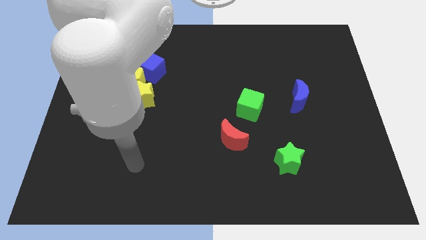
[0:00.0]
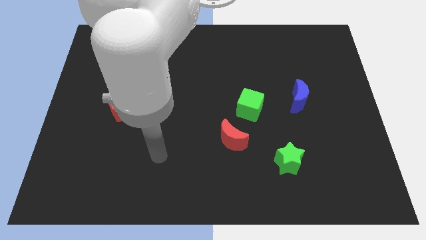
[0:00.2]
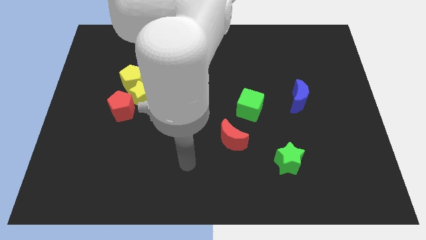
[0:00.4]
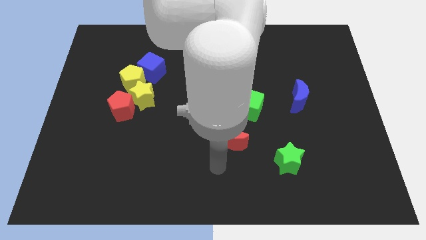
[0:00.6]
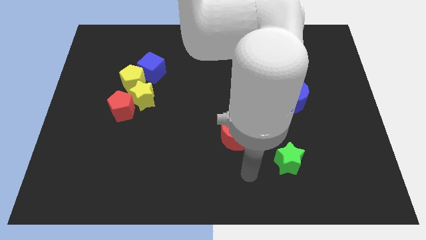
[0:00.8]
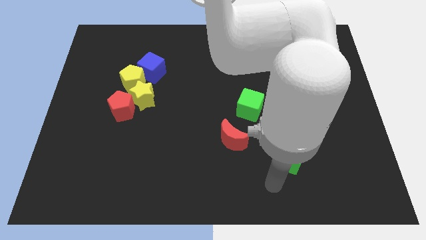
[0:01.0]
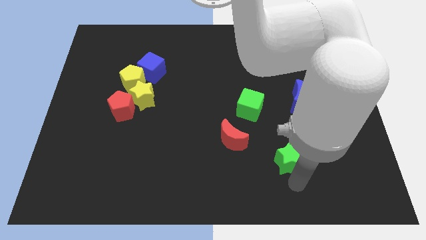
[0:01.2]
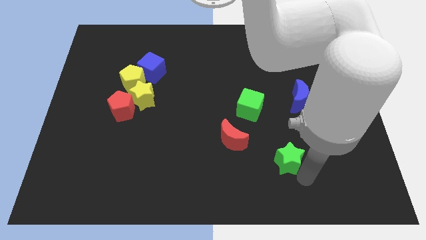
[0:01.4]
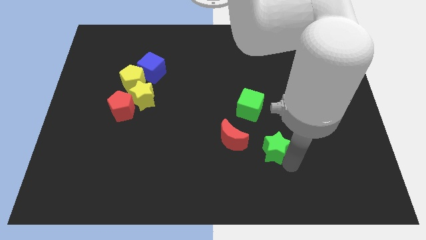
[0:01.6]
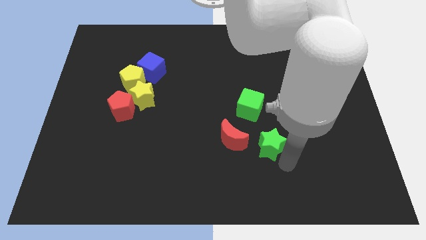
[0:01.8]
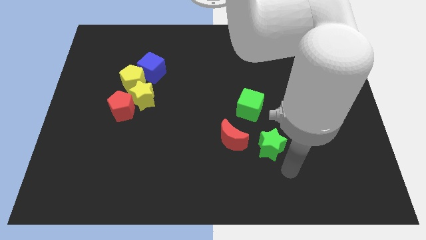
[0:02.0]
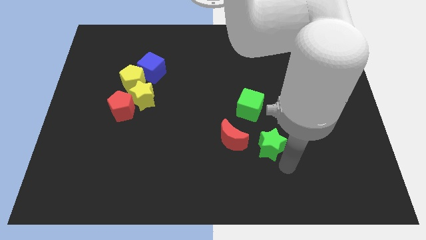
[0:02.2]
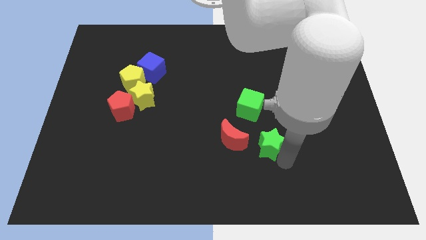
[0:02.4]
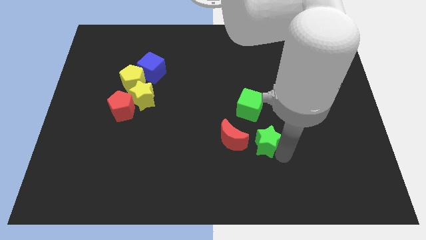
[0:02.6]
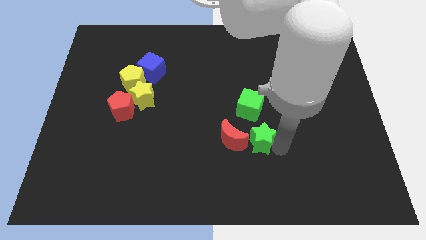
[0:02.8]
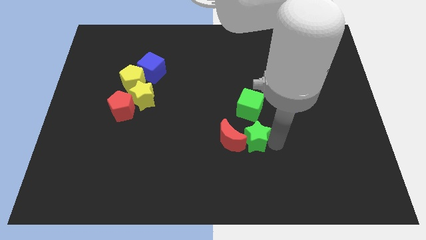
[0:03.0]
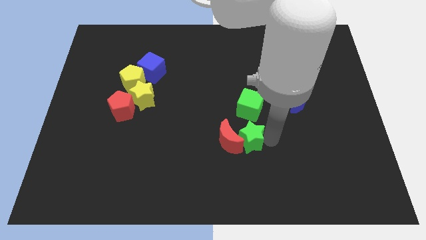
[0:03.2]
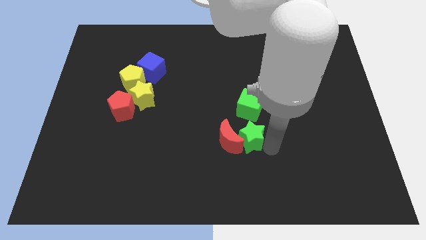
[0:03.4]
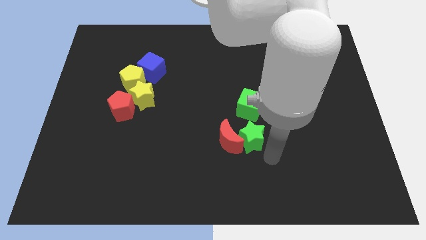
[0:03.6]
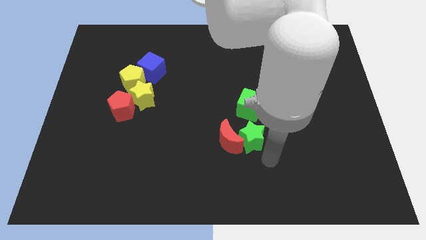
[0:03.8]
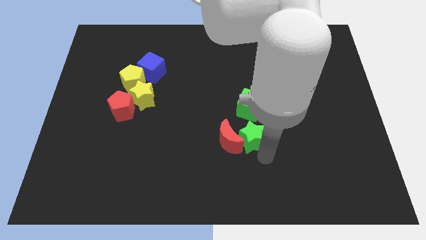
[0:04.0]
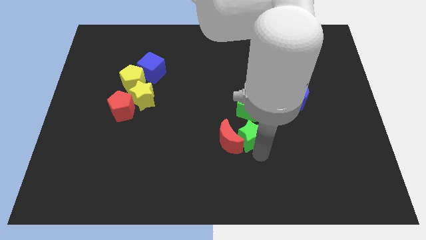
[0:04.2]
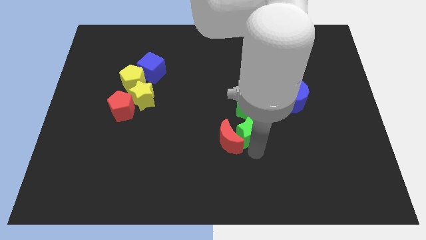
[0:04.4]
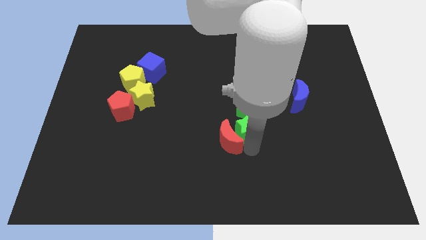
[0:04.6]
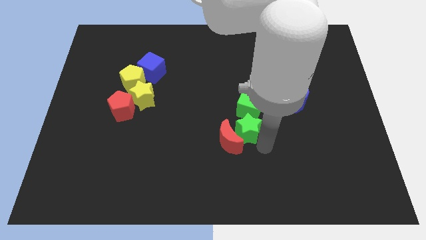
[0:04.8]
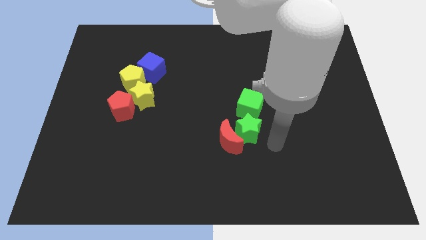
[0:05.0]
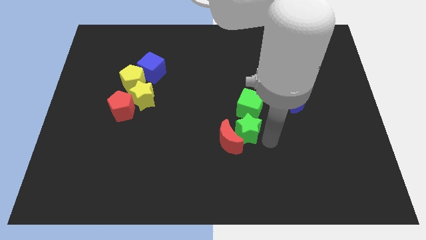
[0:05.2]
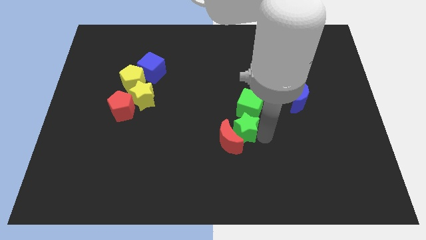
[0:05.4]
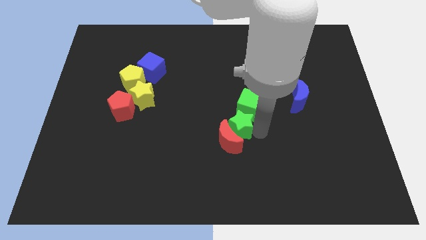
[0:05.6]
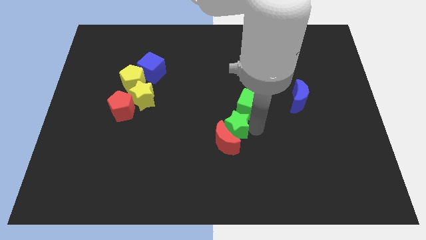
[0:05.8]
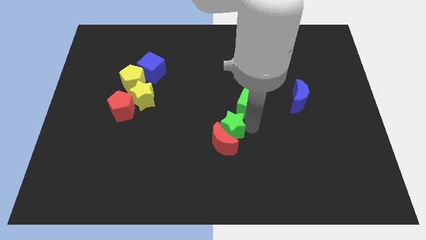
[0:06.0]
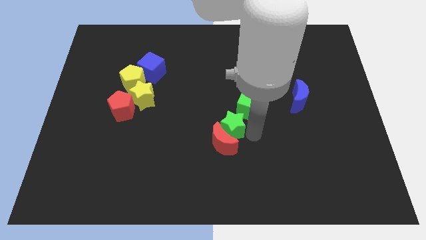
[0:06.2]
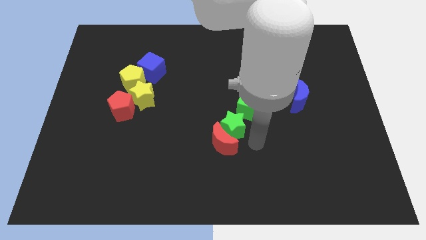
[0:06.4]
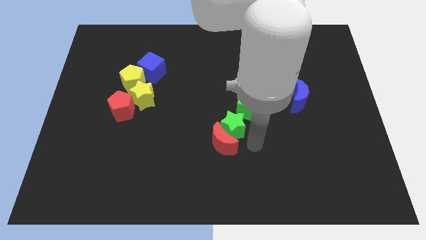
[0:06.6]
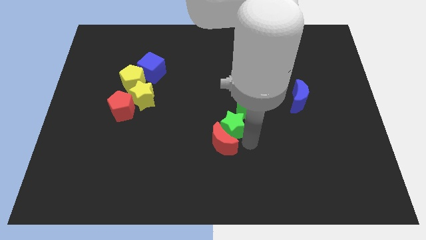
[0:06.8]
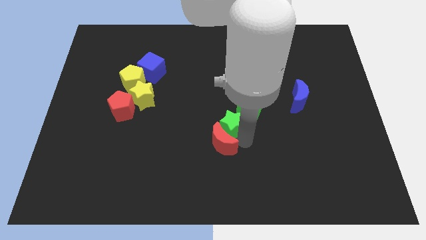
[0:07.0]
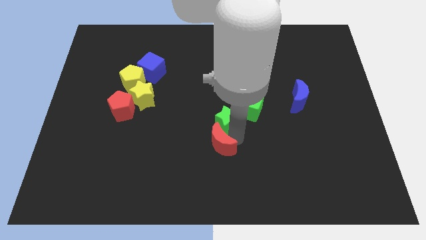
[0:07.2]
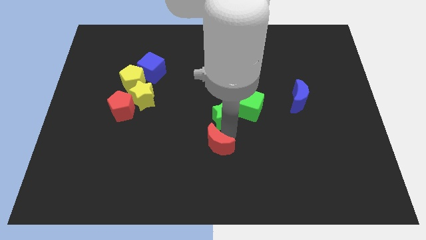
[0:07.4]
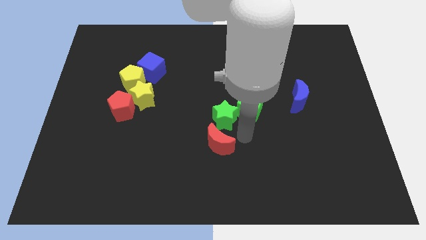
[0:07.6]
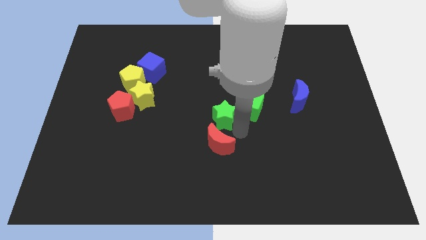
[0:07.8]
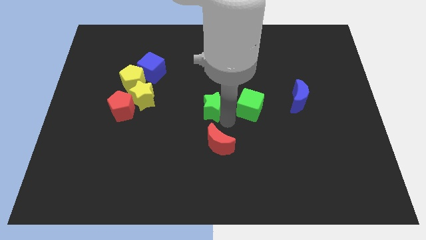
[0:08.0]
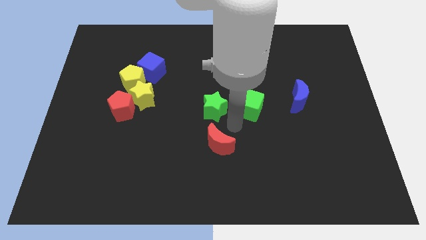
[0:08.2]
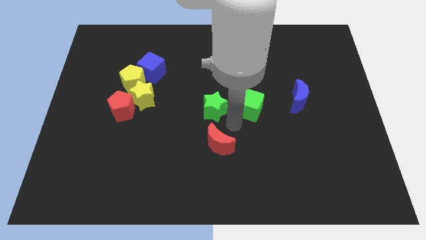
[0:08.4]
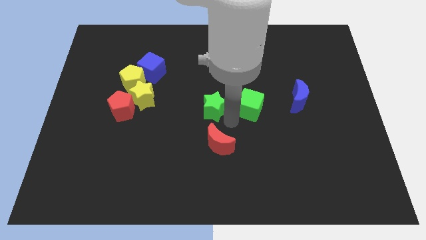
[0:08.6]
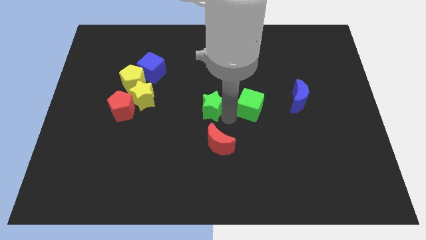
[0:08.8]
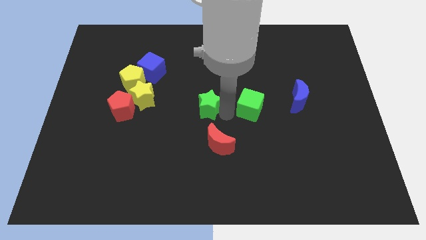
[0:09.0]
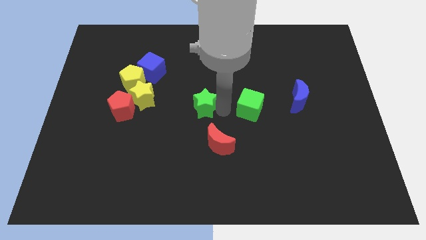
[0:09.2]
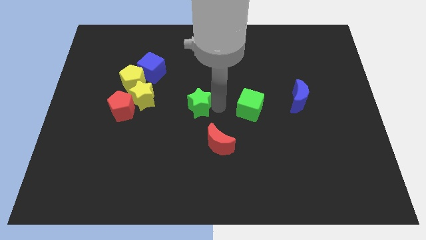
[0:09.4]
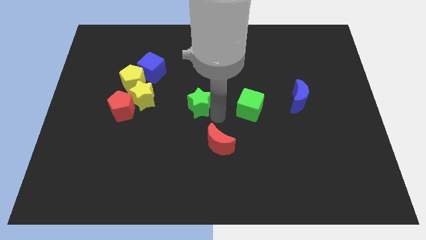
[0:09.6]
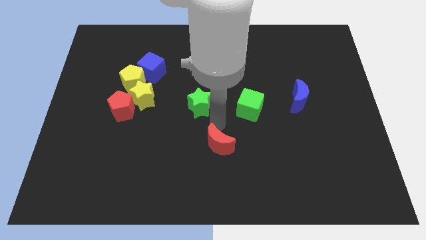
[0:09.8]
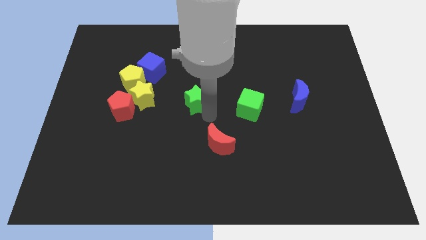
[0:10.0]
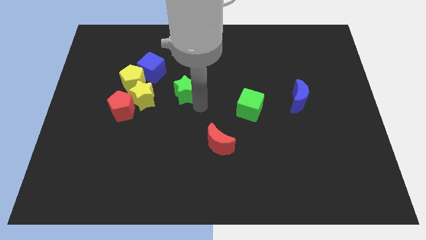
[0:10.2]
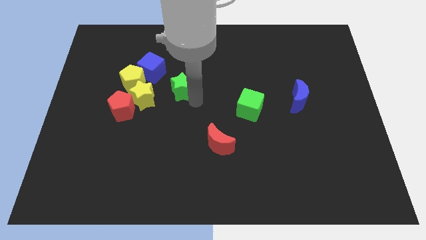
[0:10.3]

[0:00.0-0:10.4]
push the green star to the top right side of the yellow star
